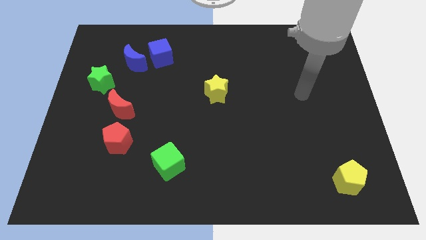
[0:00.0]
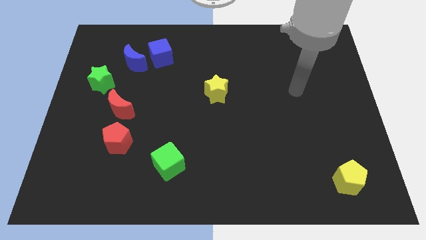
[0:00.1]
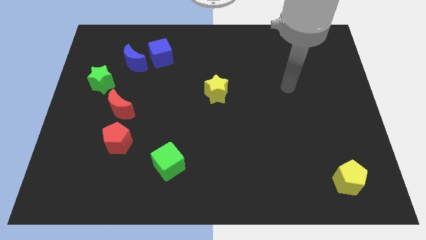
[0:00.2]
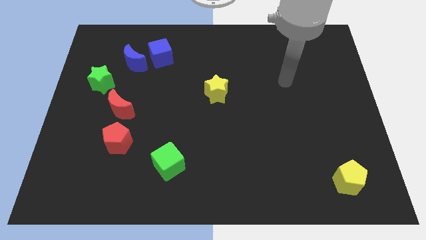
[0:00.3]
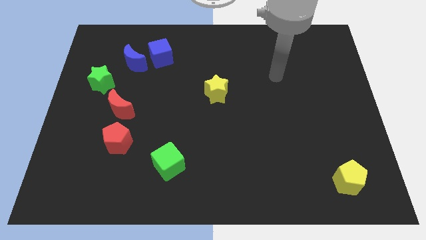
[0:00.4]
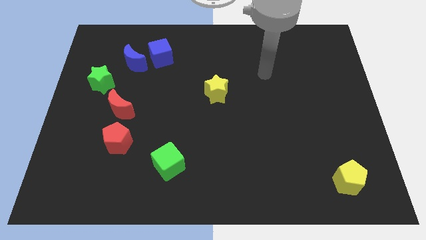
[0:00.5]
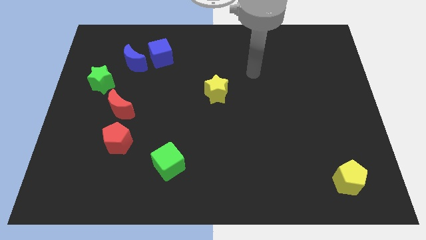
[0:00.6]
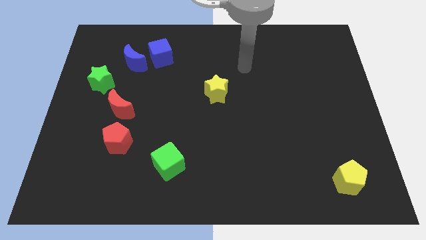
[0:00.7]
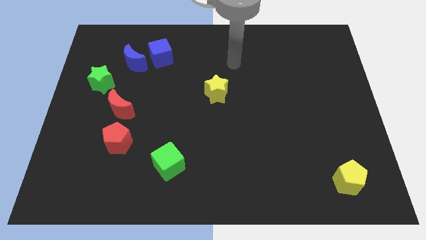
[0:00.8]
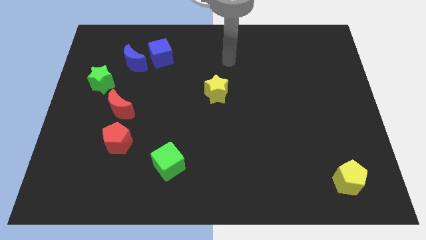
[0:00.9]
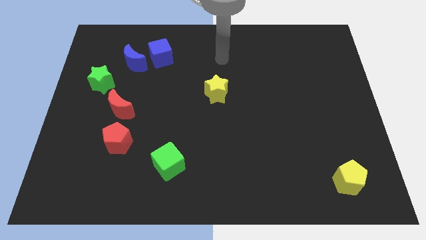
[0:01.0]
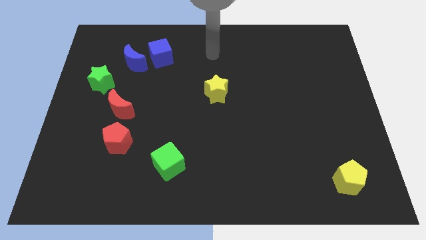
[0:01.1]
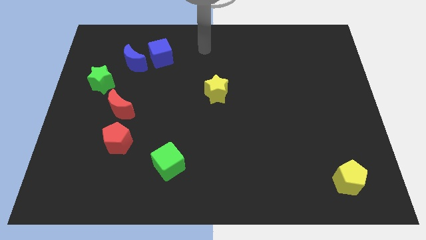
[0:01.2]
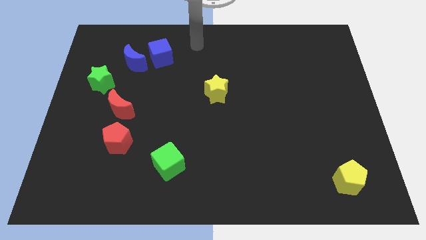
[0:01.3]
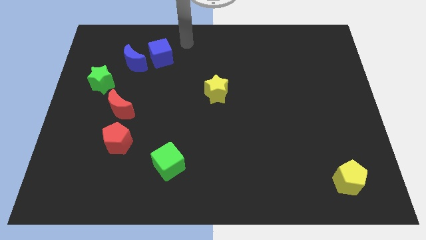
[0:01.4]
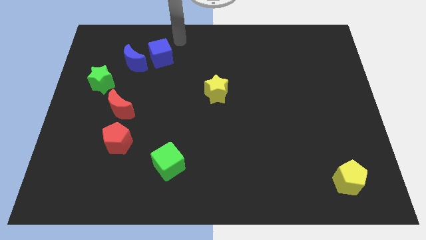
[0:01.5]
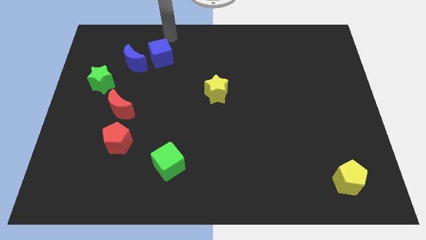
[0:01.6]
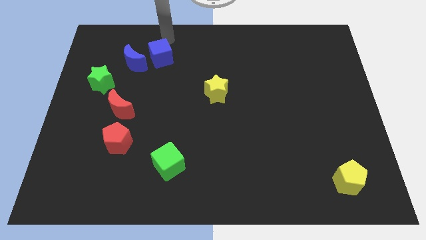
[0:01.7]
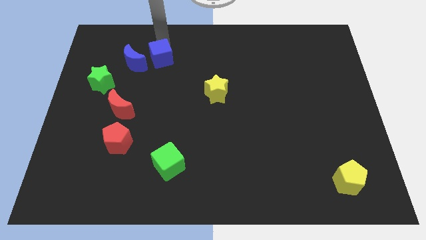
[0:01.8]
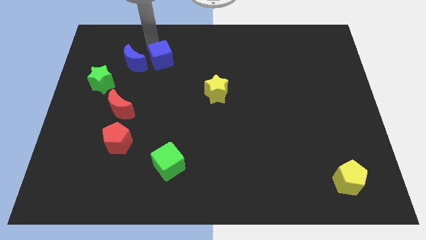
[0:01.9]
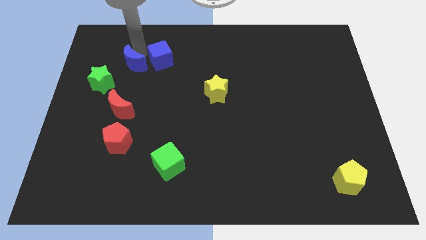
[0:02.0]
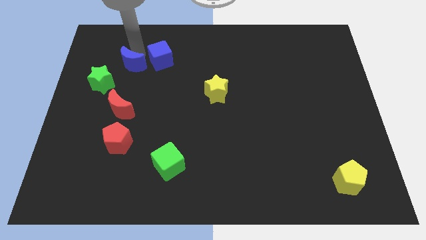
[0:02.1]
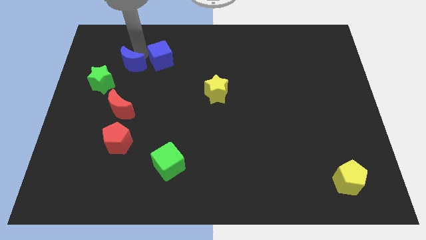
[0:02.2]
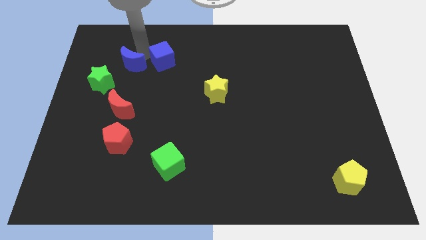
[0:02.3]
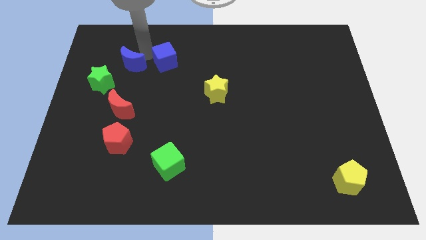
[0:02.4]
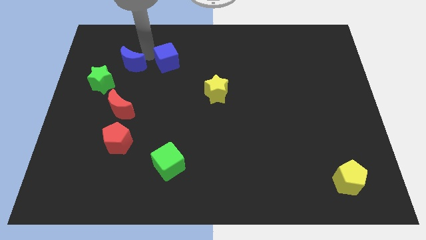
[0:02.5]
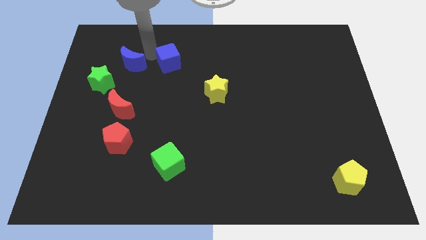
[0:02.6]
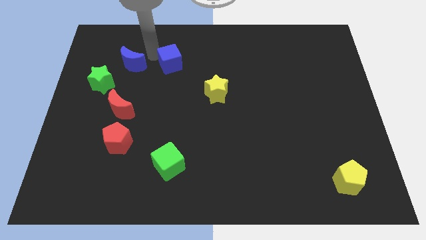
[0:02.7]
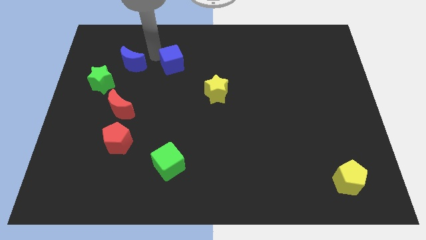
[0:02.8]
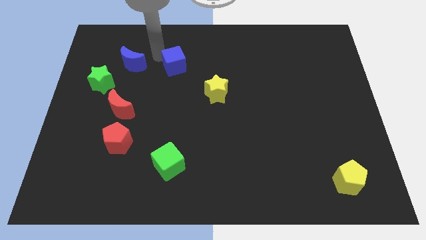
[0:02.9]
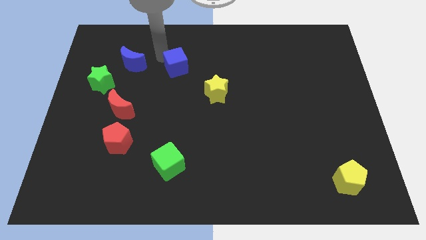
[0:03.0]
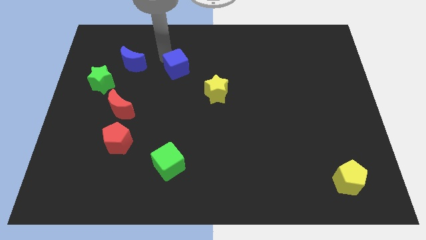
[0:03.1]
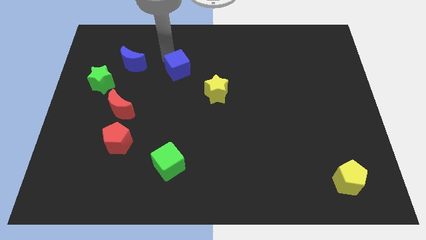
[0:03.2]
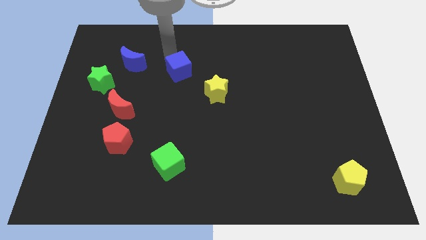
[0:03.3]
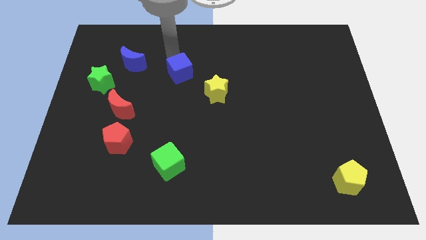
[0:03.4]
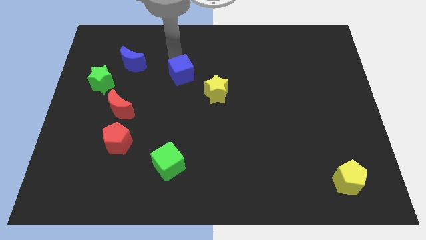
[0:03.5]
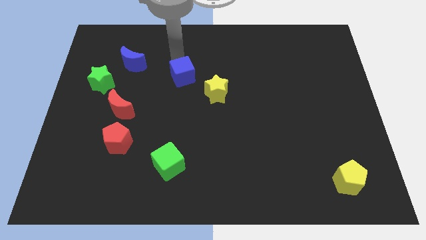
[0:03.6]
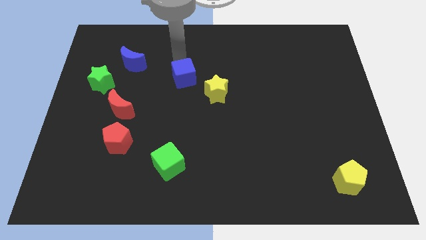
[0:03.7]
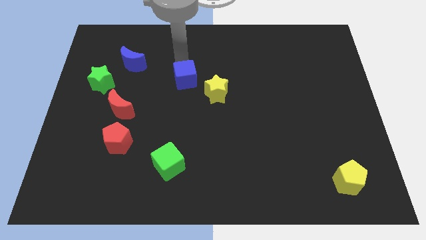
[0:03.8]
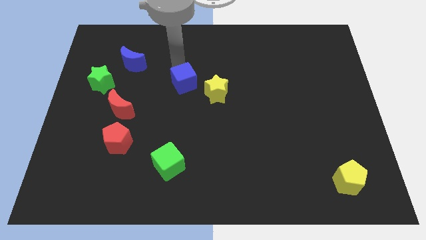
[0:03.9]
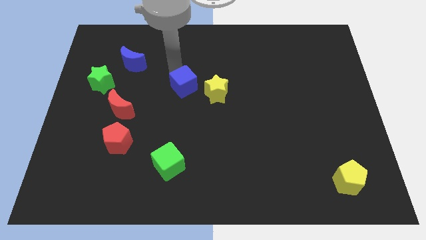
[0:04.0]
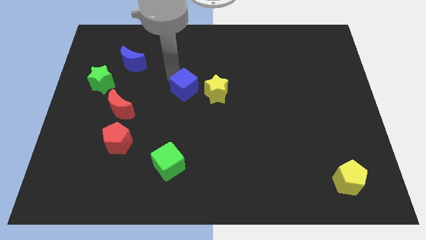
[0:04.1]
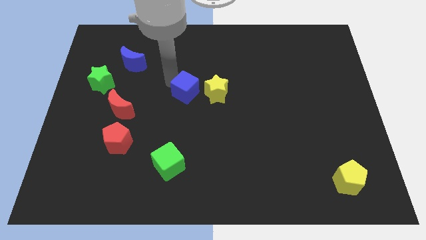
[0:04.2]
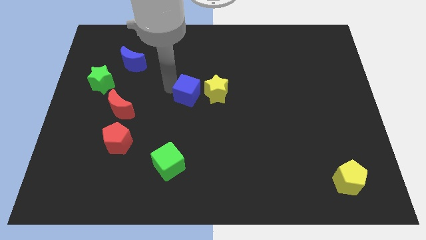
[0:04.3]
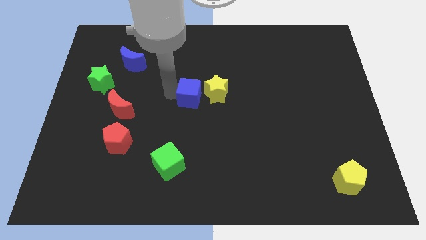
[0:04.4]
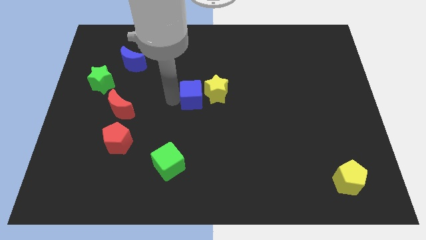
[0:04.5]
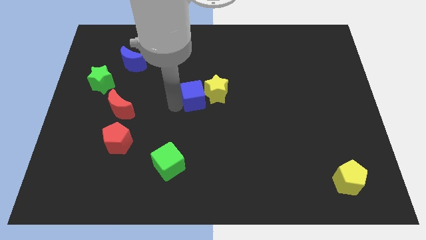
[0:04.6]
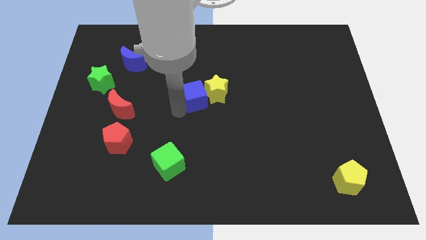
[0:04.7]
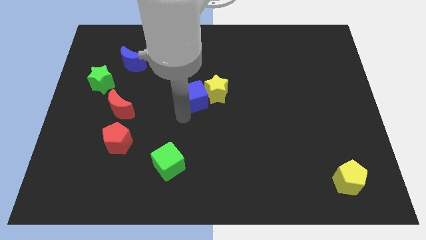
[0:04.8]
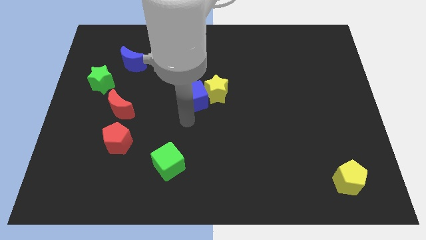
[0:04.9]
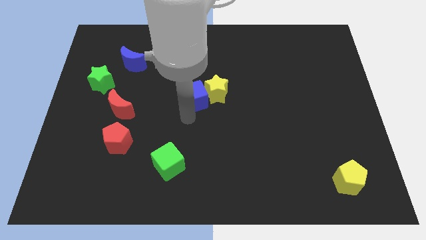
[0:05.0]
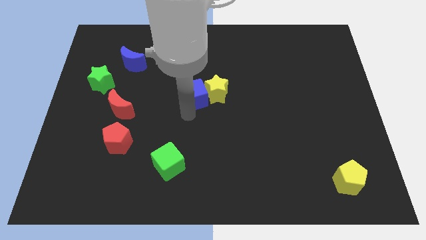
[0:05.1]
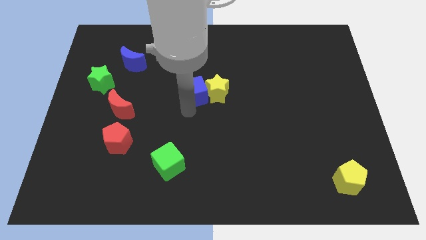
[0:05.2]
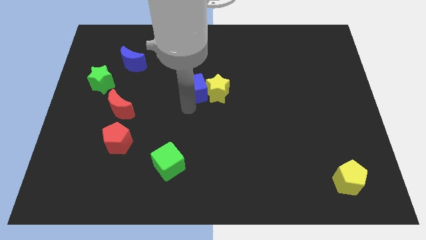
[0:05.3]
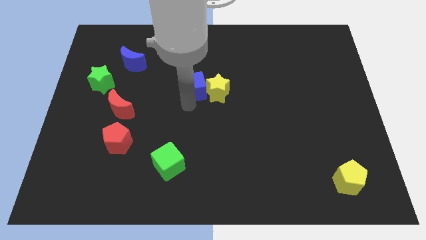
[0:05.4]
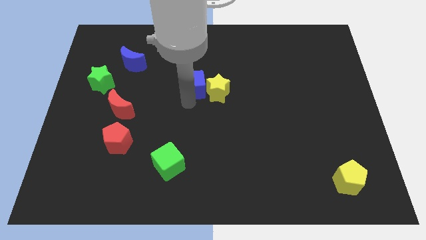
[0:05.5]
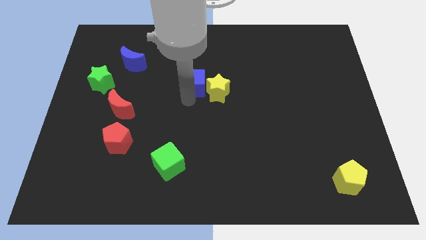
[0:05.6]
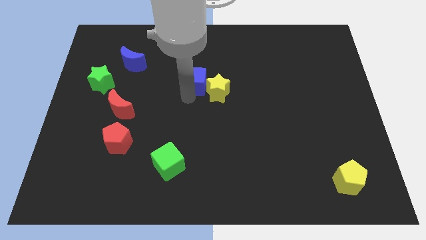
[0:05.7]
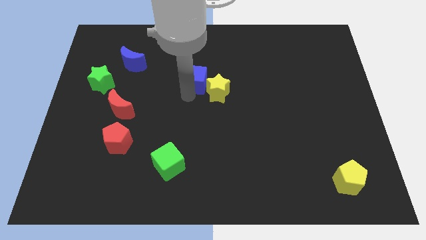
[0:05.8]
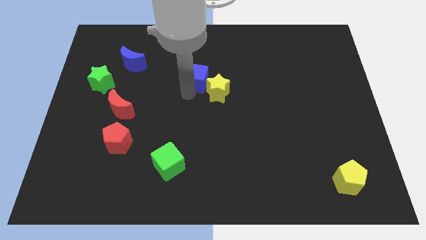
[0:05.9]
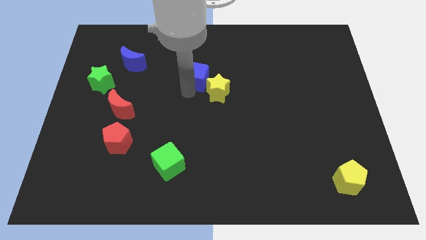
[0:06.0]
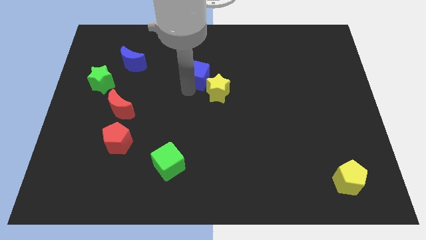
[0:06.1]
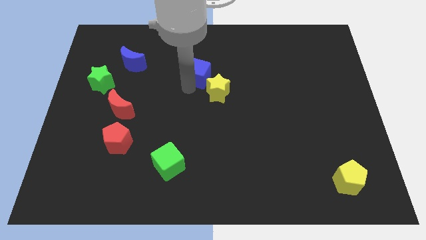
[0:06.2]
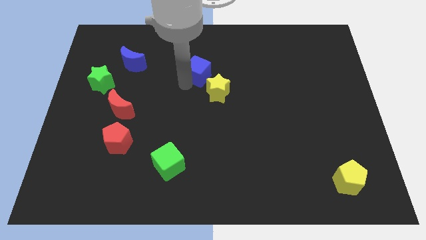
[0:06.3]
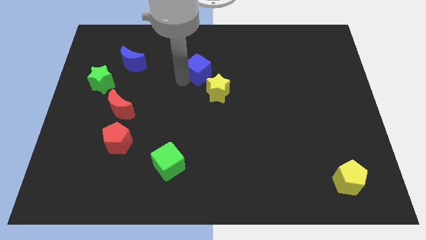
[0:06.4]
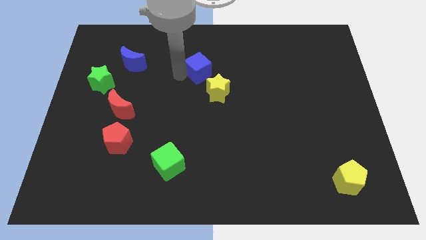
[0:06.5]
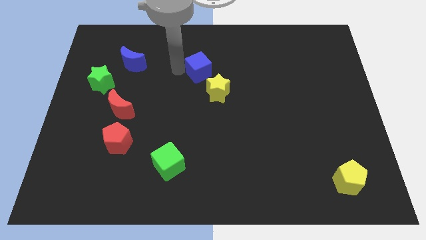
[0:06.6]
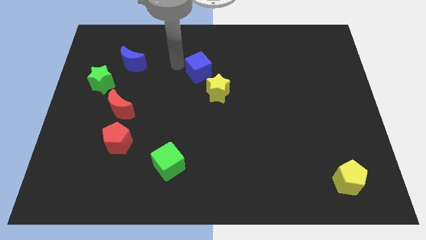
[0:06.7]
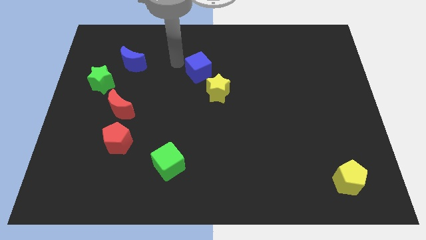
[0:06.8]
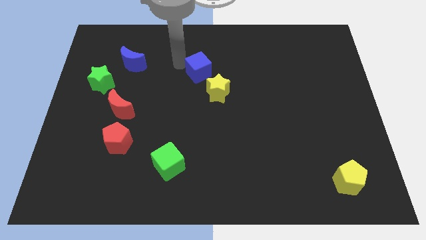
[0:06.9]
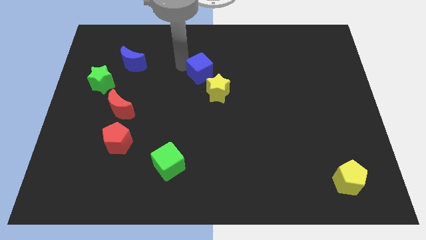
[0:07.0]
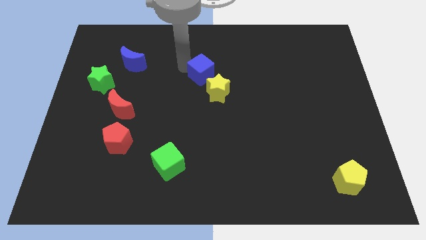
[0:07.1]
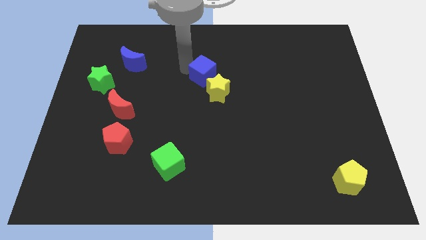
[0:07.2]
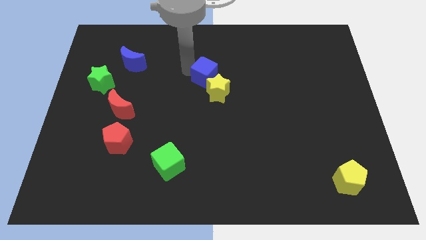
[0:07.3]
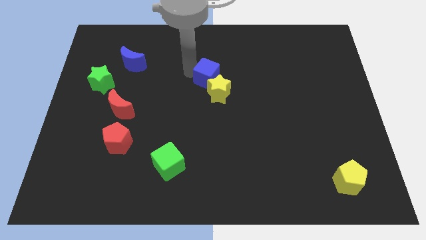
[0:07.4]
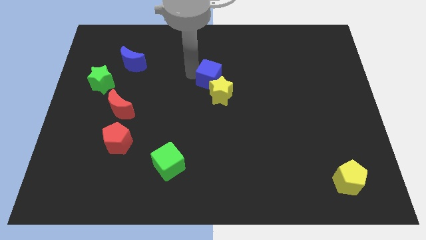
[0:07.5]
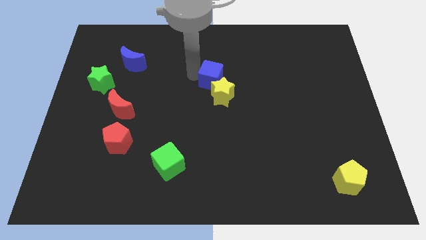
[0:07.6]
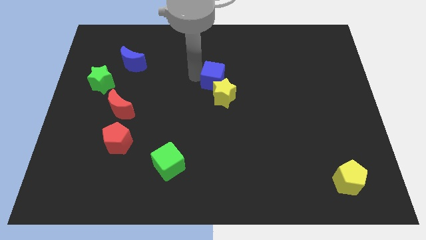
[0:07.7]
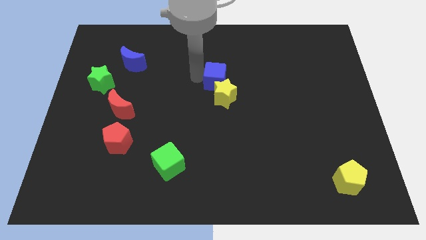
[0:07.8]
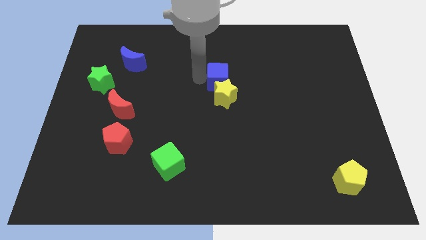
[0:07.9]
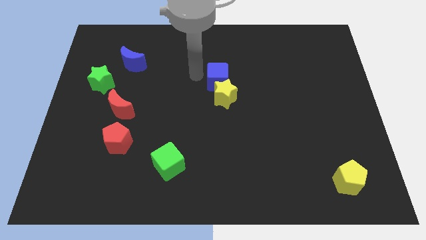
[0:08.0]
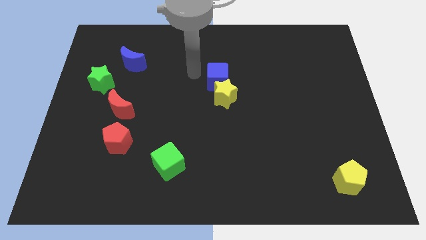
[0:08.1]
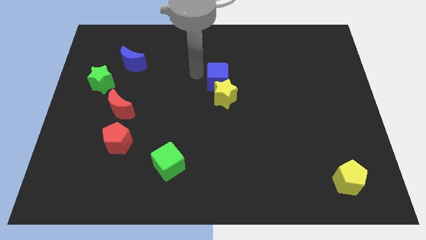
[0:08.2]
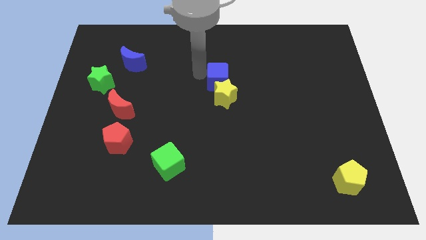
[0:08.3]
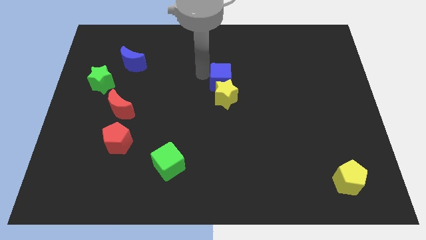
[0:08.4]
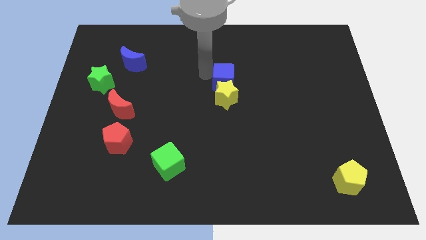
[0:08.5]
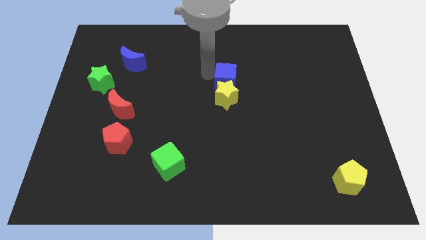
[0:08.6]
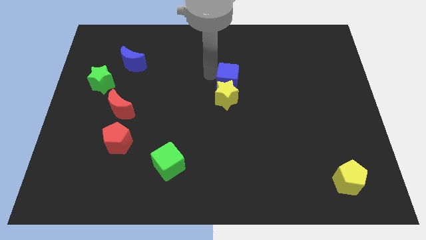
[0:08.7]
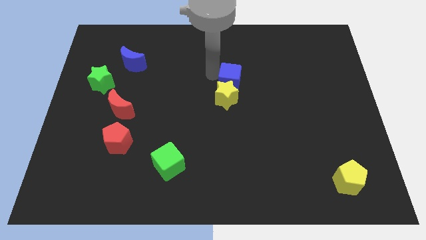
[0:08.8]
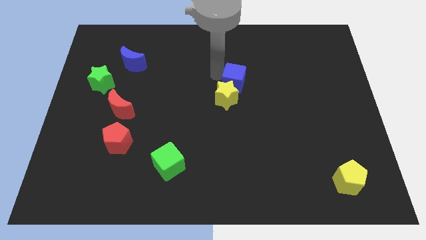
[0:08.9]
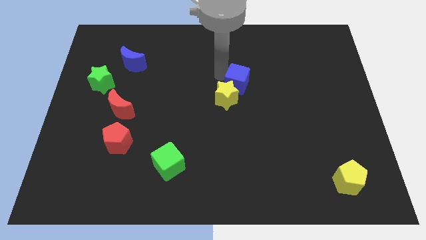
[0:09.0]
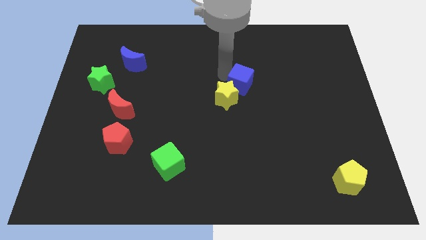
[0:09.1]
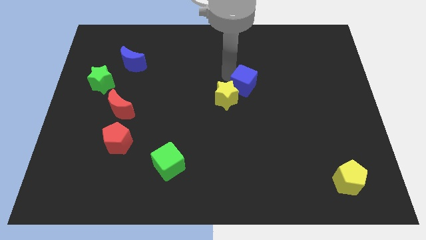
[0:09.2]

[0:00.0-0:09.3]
move the blue cube to the right of the yellow star
